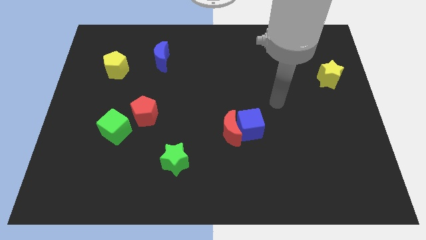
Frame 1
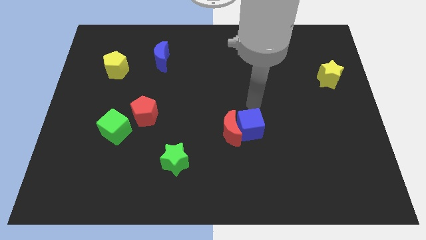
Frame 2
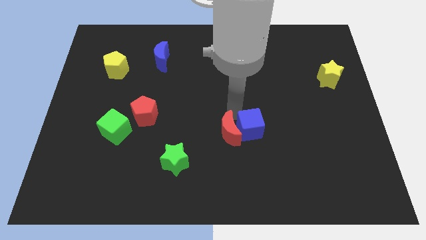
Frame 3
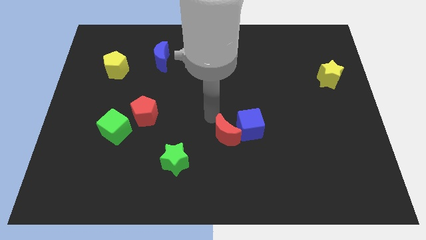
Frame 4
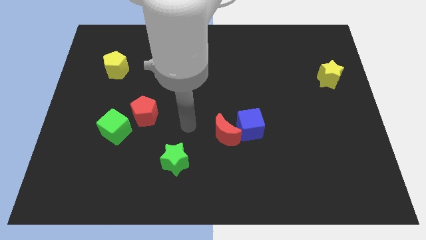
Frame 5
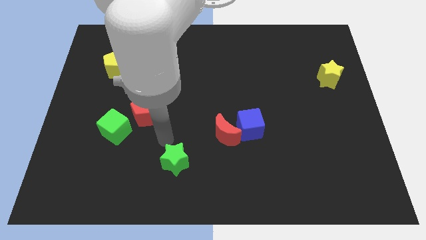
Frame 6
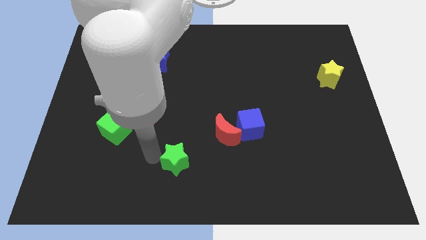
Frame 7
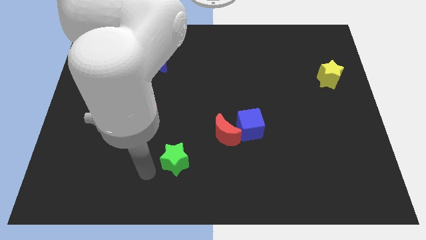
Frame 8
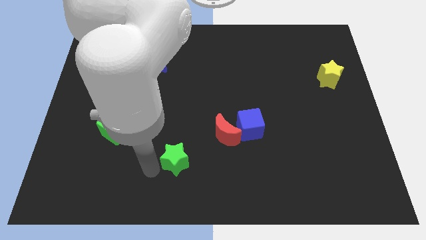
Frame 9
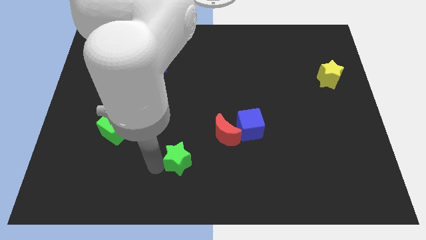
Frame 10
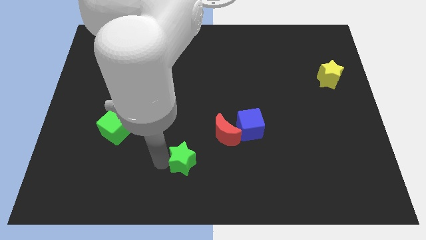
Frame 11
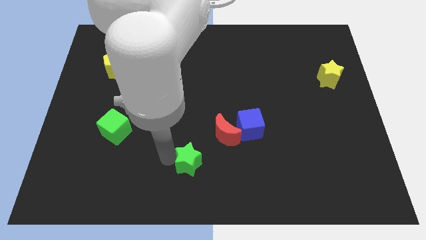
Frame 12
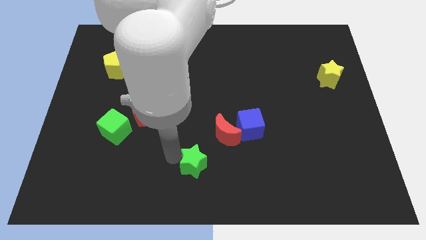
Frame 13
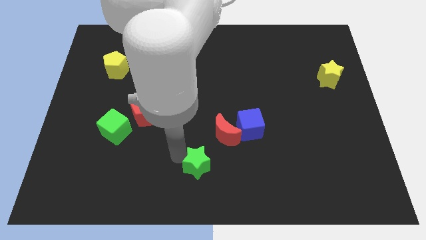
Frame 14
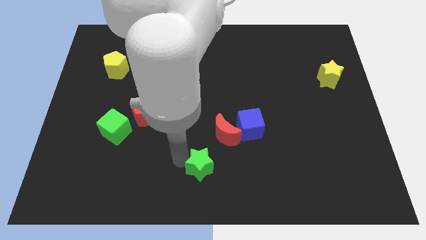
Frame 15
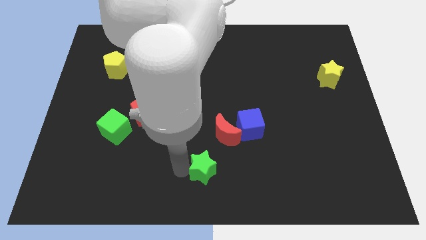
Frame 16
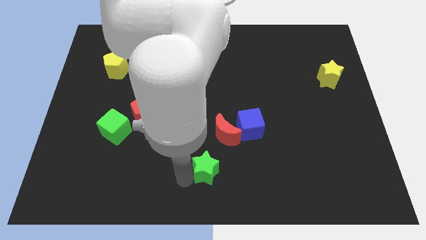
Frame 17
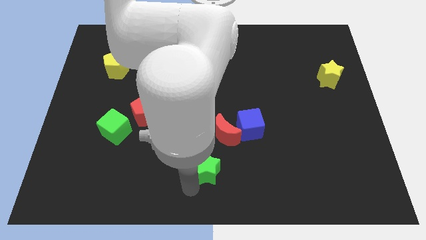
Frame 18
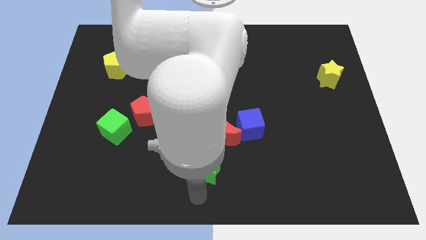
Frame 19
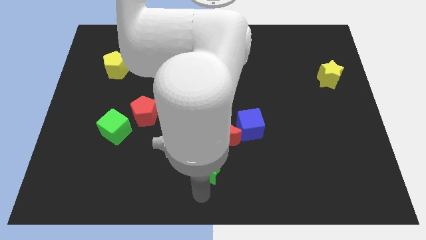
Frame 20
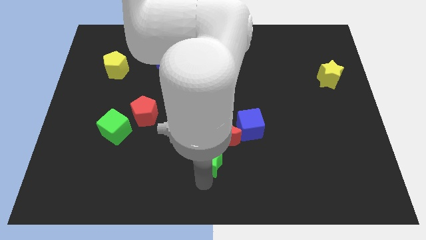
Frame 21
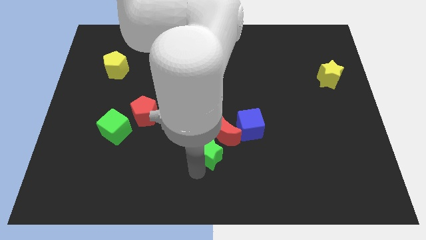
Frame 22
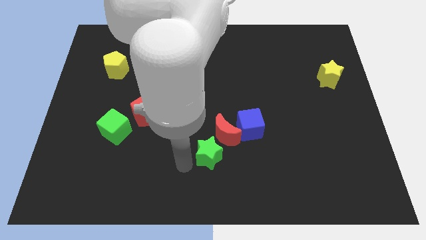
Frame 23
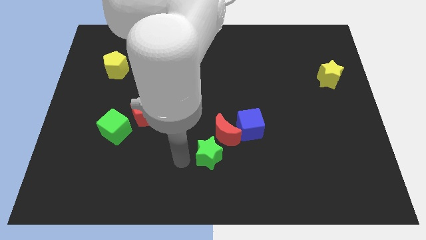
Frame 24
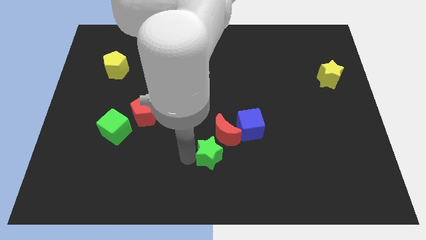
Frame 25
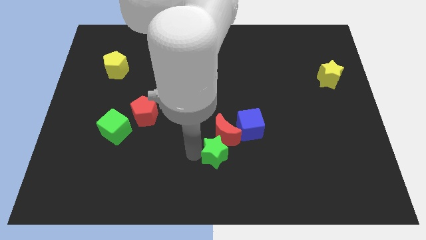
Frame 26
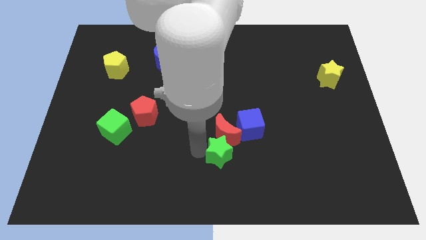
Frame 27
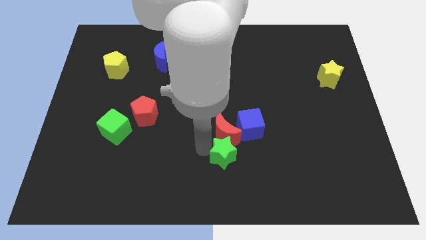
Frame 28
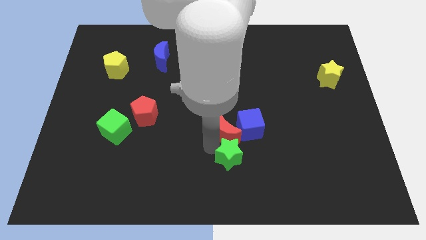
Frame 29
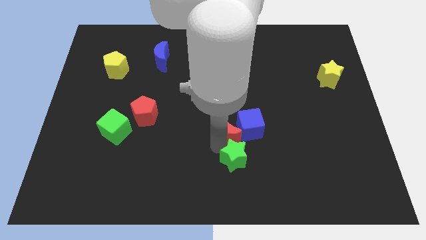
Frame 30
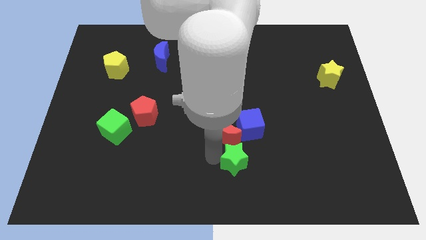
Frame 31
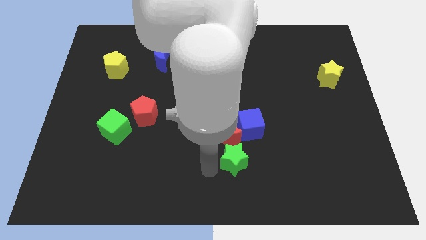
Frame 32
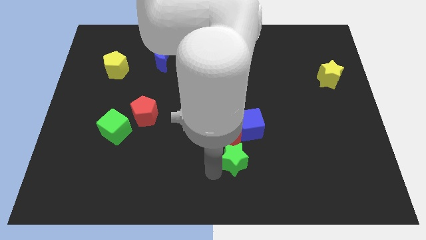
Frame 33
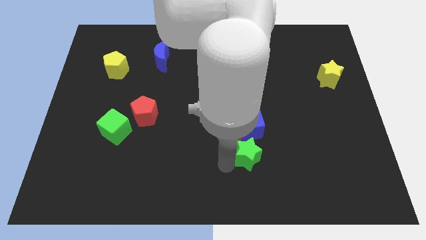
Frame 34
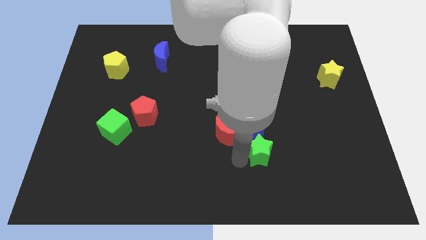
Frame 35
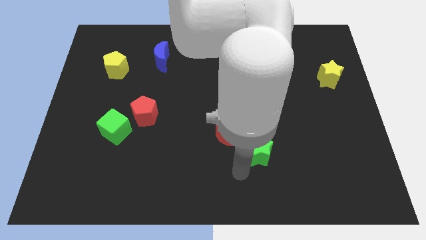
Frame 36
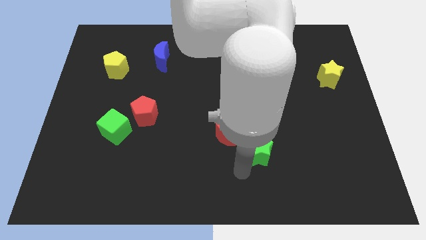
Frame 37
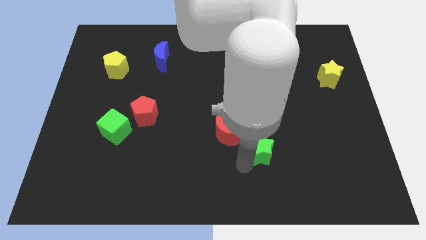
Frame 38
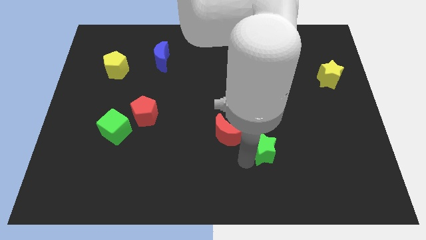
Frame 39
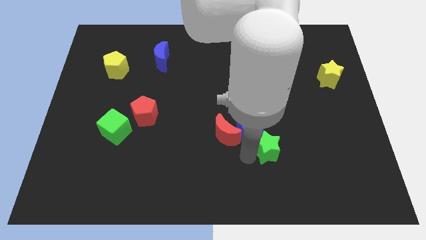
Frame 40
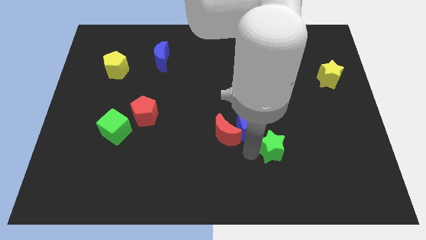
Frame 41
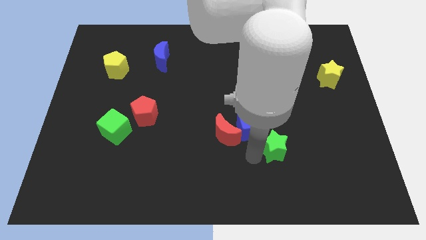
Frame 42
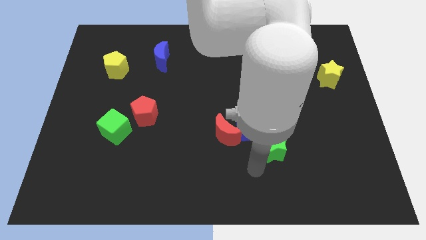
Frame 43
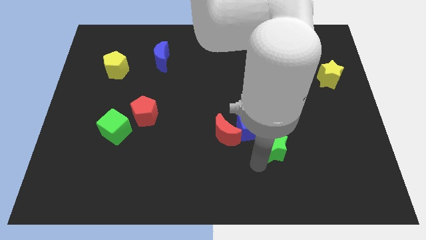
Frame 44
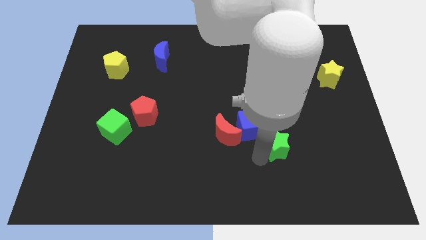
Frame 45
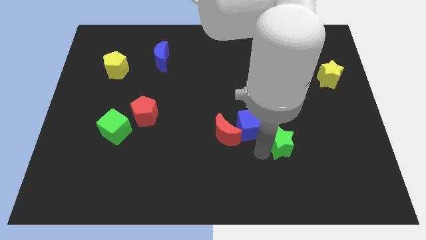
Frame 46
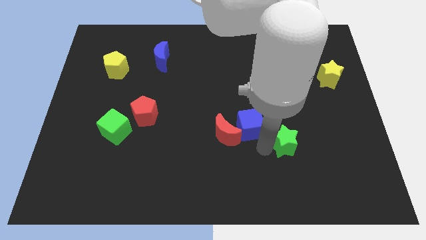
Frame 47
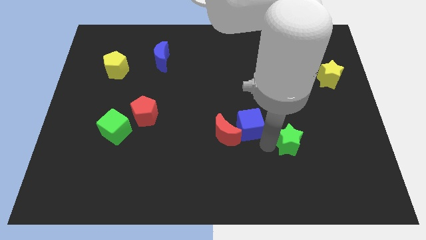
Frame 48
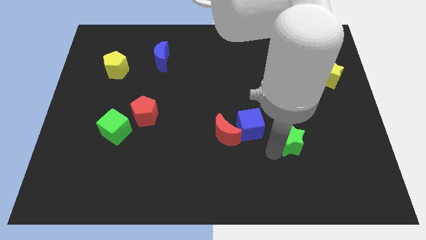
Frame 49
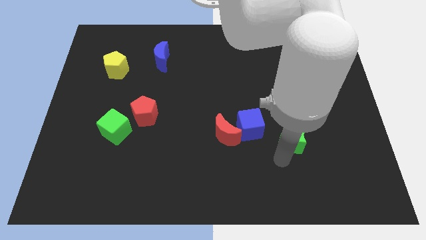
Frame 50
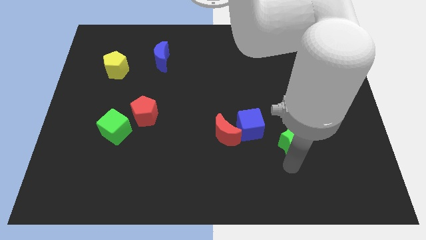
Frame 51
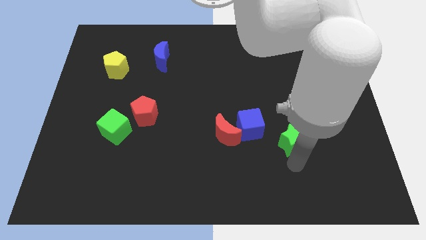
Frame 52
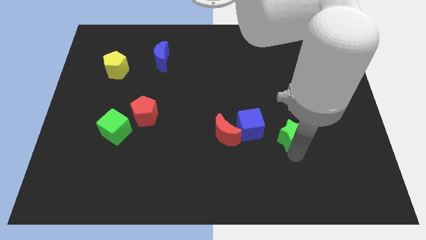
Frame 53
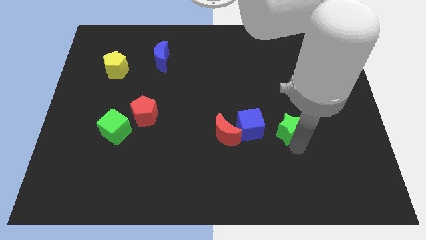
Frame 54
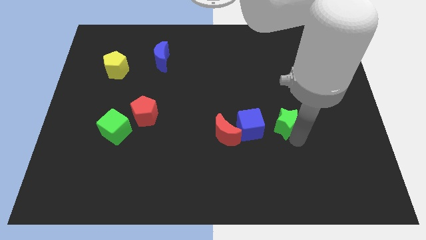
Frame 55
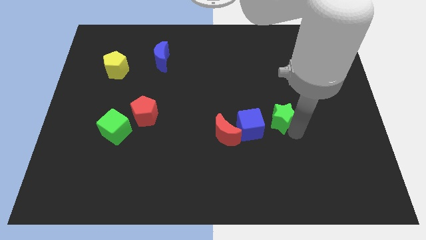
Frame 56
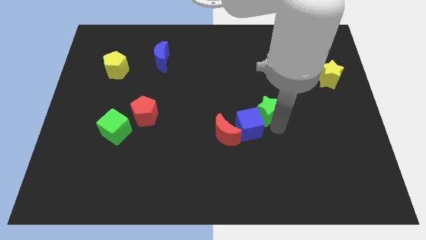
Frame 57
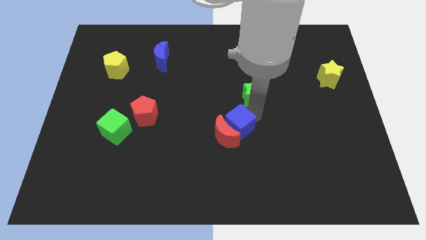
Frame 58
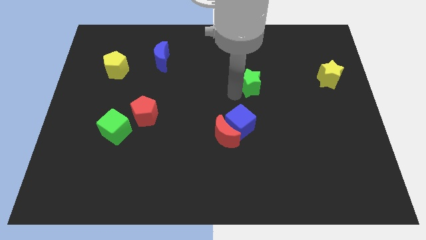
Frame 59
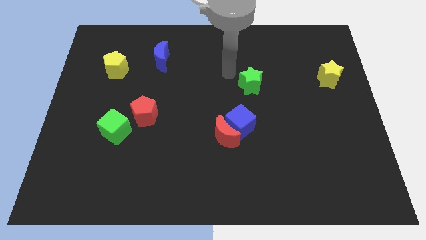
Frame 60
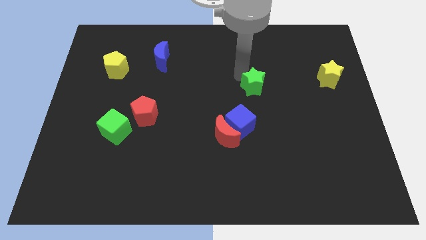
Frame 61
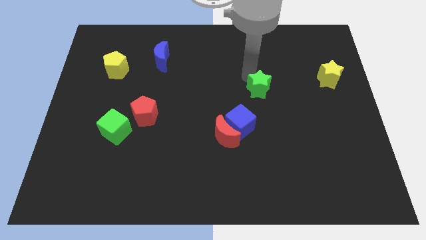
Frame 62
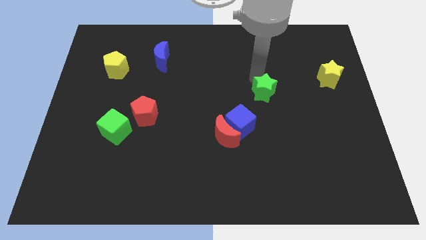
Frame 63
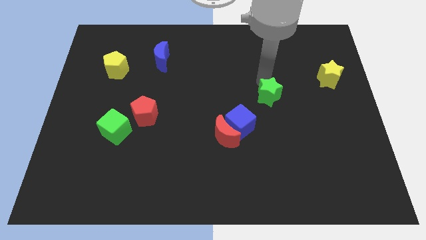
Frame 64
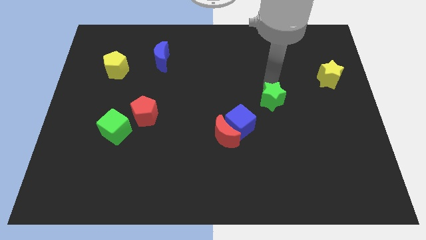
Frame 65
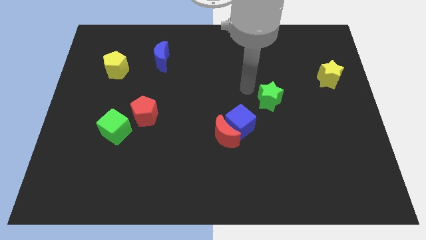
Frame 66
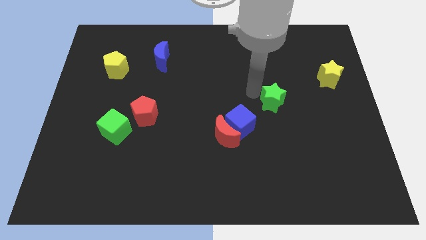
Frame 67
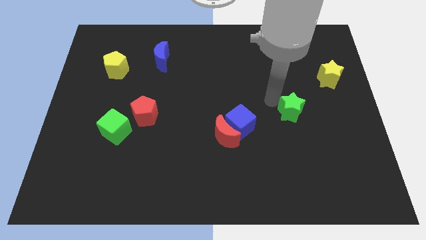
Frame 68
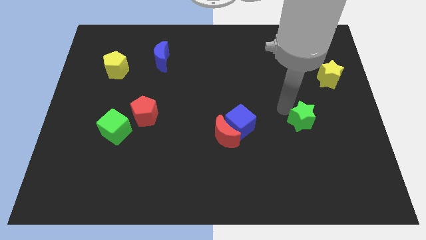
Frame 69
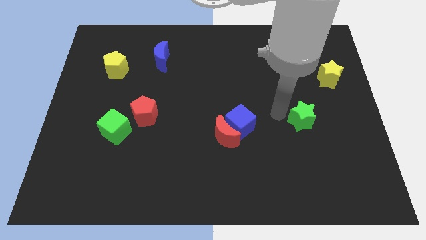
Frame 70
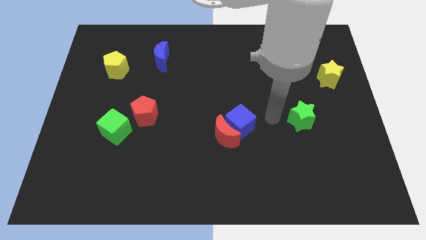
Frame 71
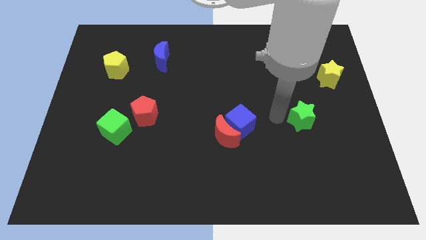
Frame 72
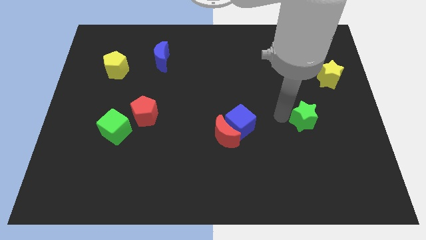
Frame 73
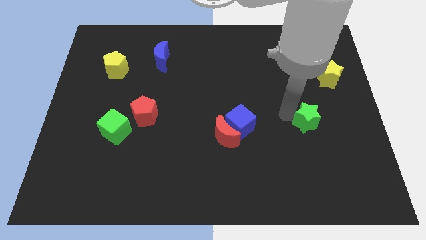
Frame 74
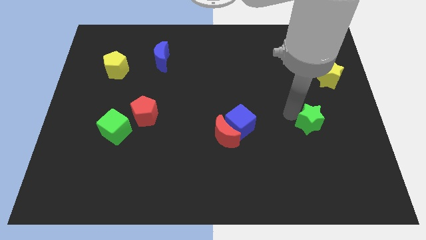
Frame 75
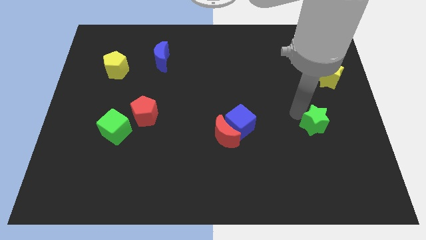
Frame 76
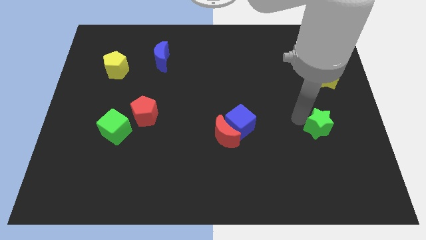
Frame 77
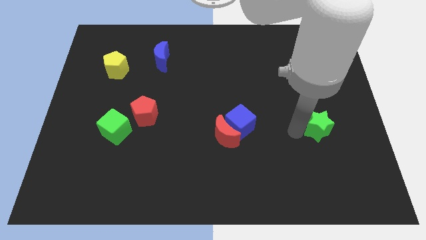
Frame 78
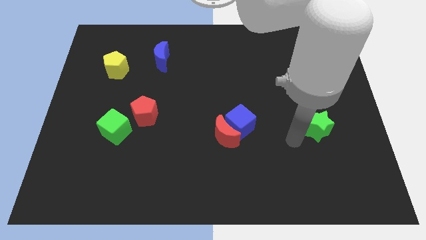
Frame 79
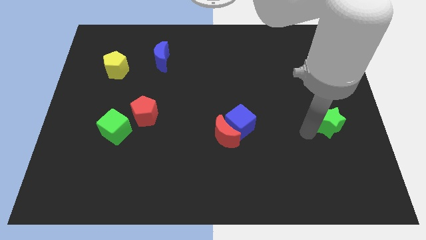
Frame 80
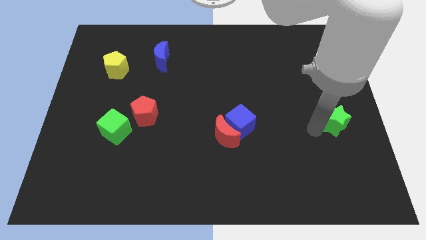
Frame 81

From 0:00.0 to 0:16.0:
put the green star to the right side of the board
